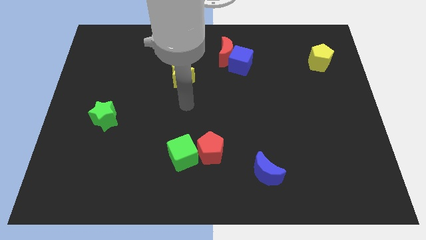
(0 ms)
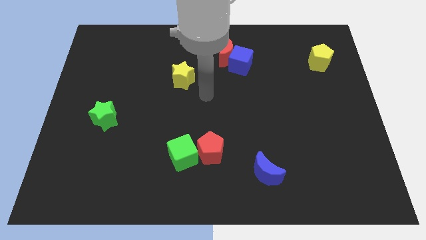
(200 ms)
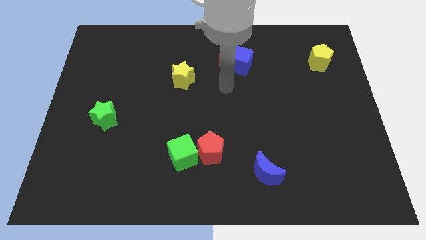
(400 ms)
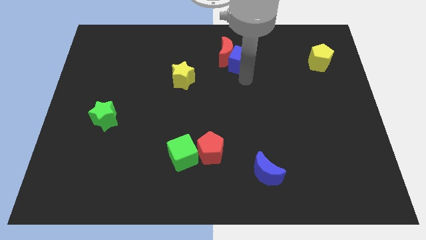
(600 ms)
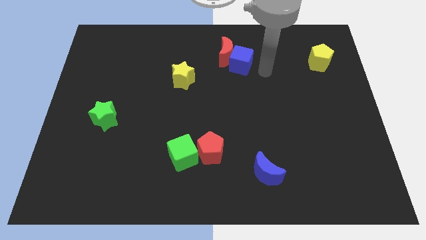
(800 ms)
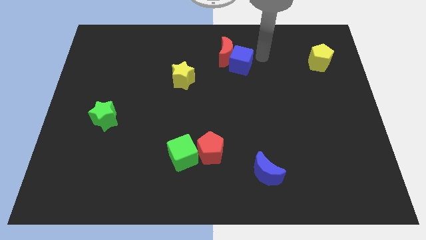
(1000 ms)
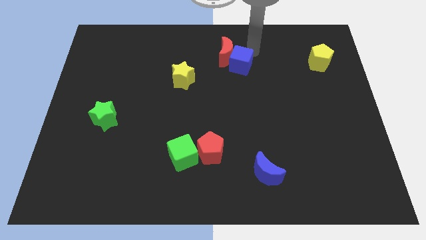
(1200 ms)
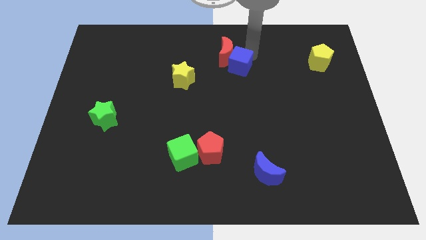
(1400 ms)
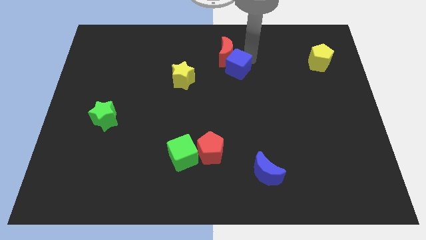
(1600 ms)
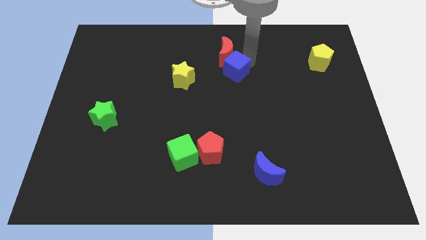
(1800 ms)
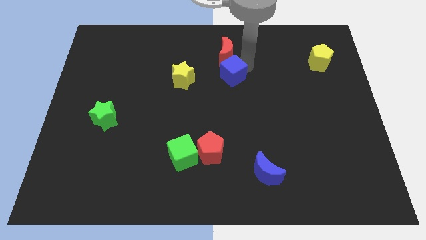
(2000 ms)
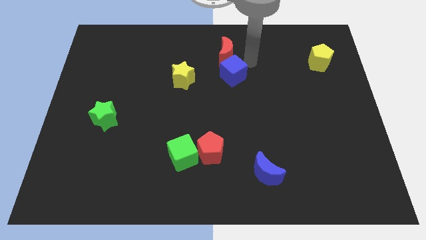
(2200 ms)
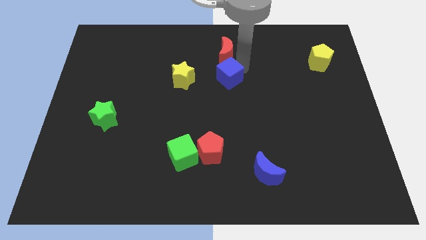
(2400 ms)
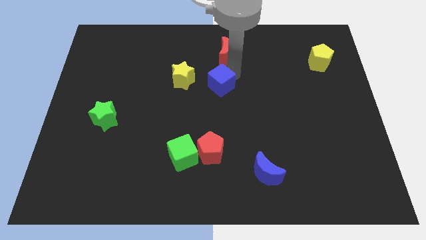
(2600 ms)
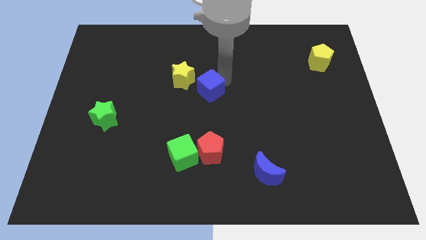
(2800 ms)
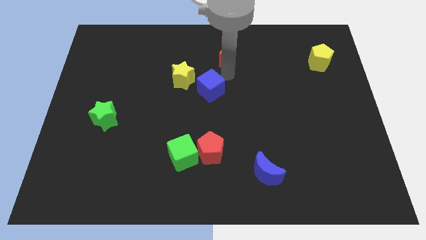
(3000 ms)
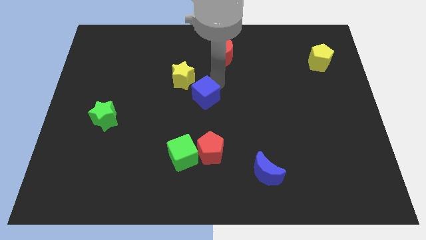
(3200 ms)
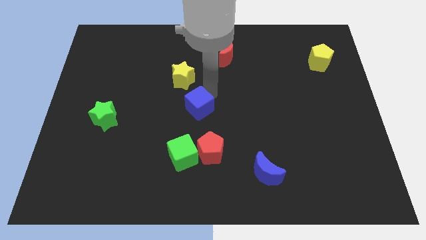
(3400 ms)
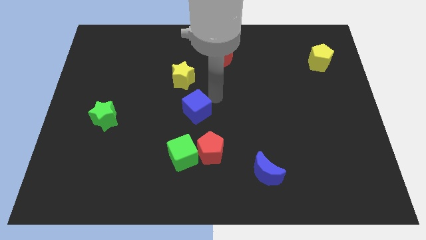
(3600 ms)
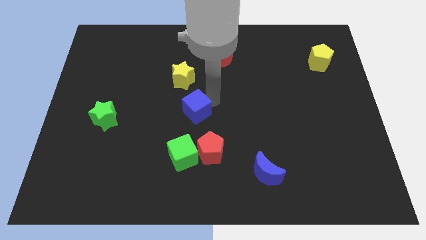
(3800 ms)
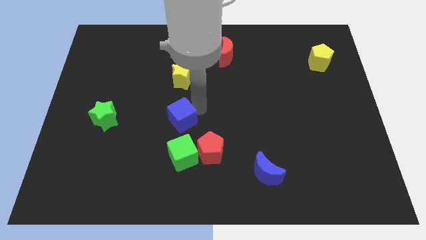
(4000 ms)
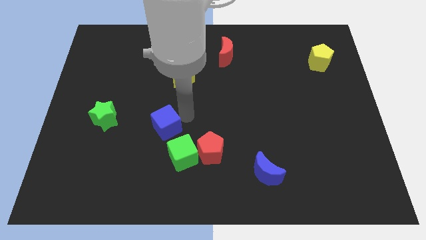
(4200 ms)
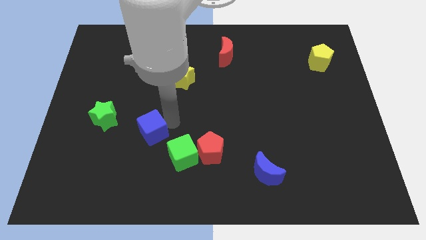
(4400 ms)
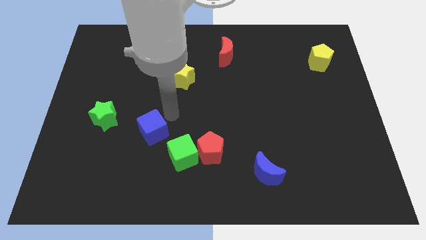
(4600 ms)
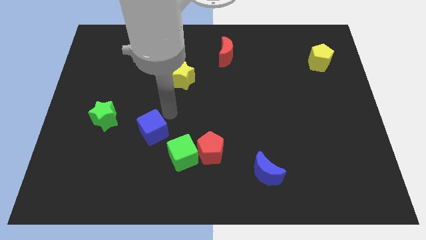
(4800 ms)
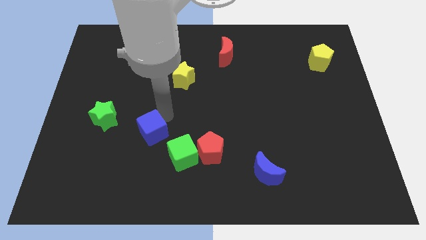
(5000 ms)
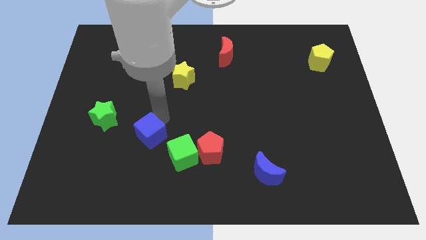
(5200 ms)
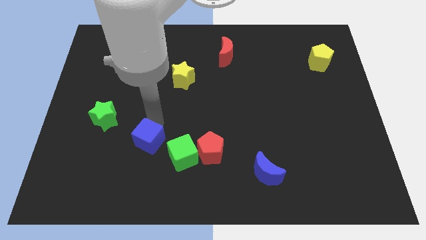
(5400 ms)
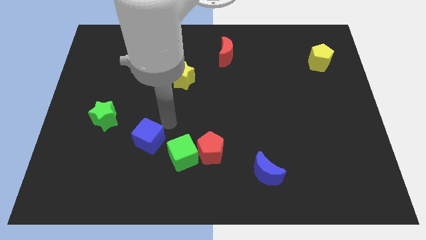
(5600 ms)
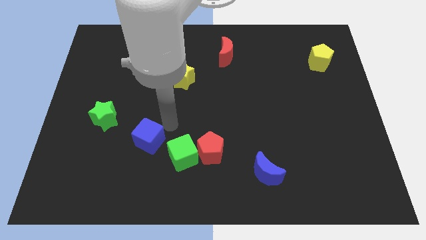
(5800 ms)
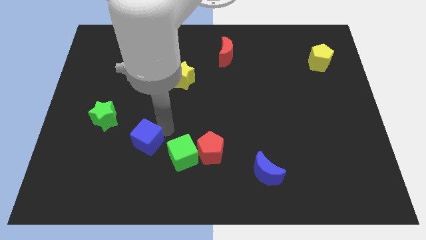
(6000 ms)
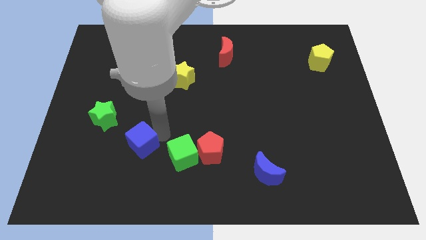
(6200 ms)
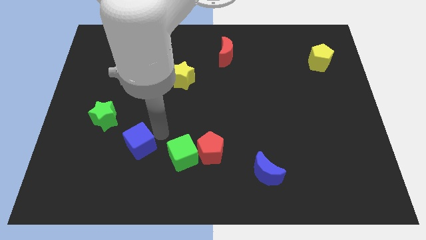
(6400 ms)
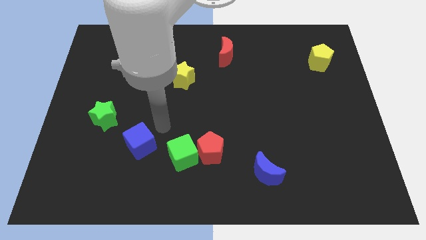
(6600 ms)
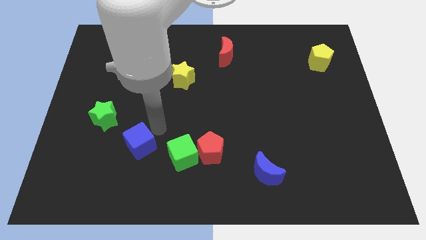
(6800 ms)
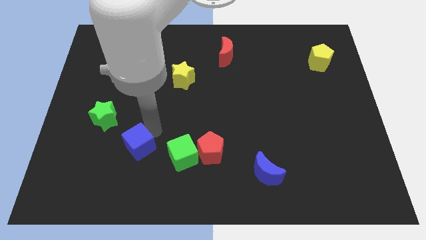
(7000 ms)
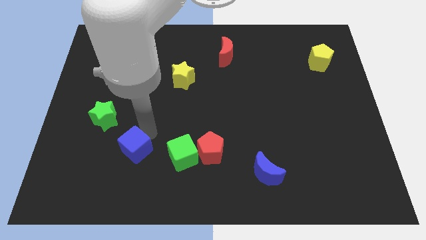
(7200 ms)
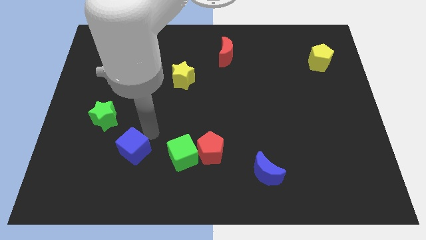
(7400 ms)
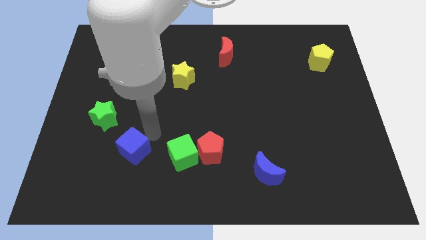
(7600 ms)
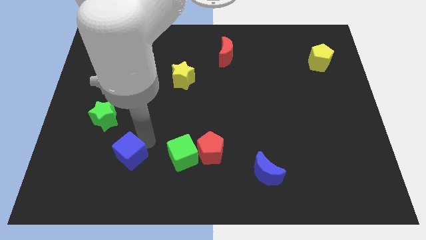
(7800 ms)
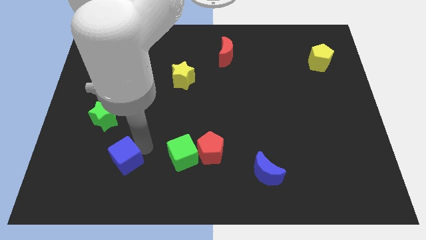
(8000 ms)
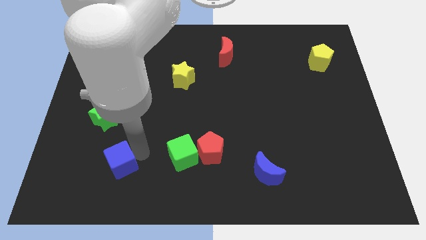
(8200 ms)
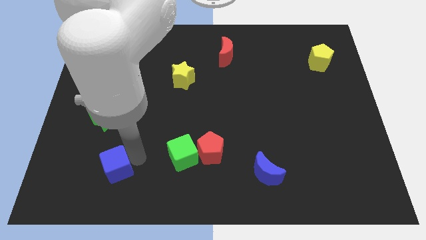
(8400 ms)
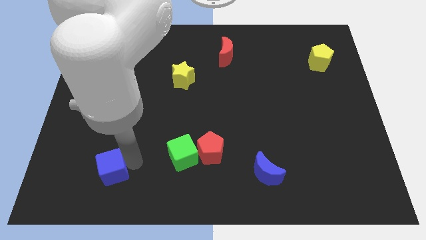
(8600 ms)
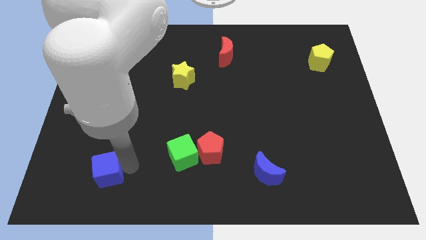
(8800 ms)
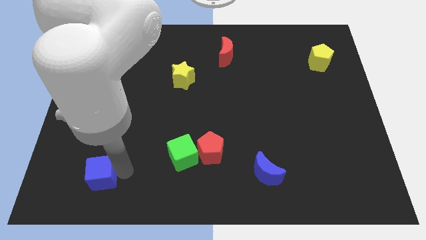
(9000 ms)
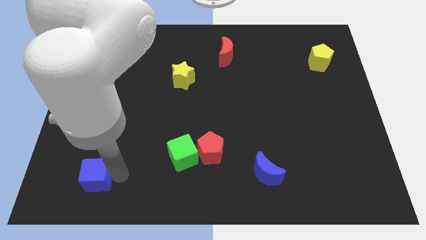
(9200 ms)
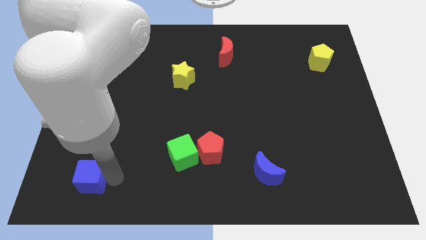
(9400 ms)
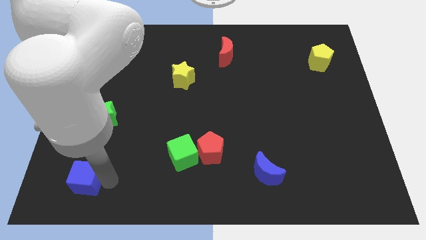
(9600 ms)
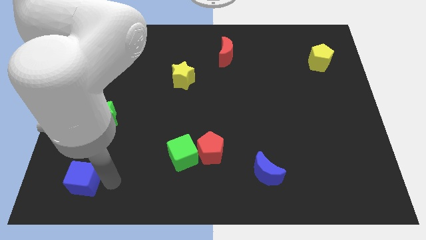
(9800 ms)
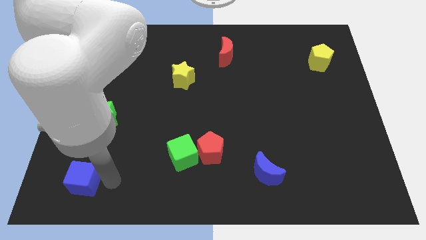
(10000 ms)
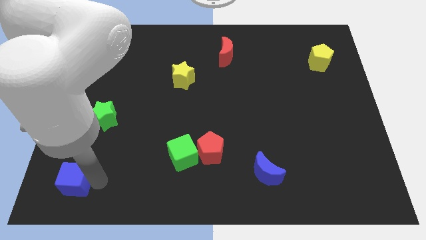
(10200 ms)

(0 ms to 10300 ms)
put the blue cube to the bottom left

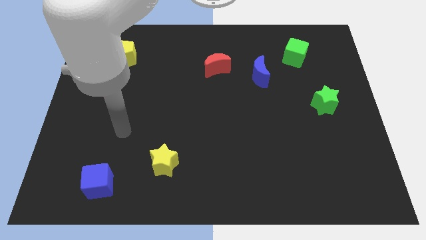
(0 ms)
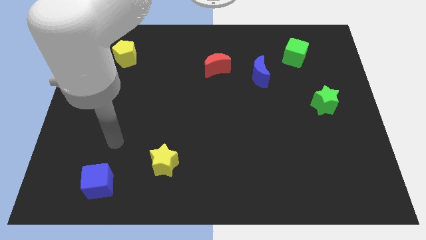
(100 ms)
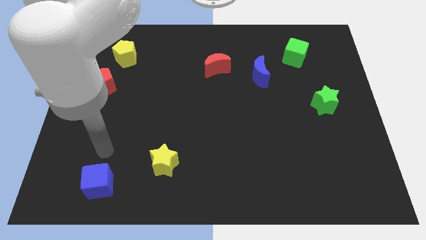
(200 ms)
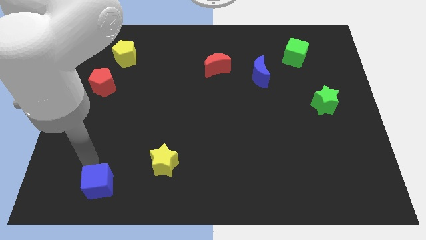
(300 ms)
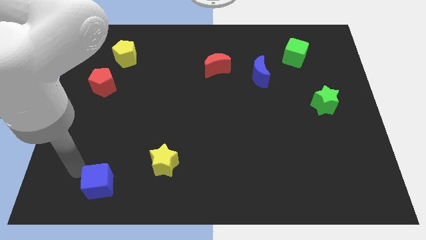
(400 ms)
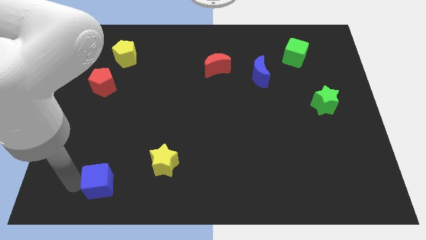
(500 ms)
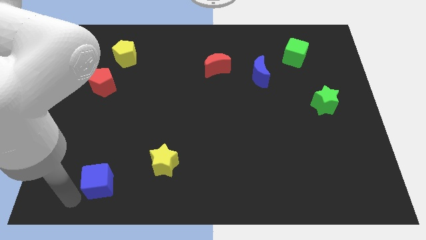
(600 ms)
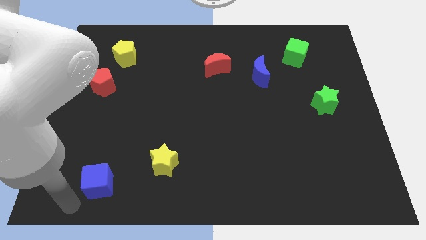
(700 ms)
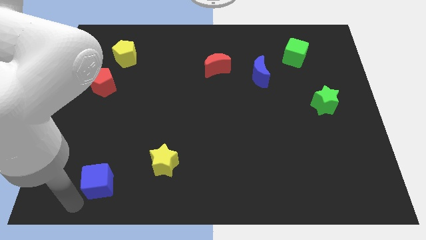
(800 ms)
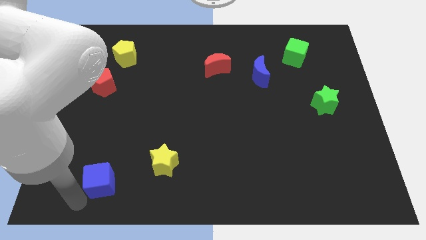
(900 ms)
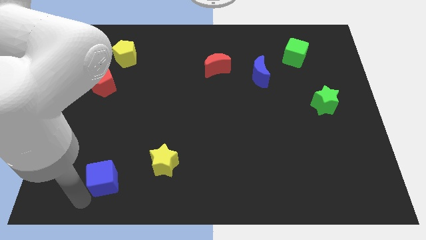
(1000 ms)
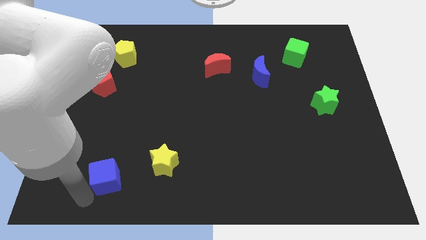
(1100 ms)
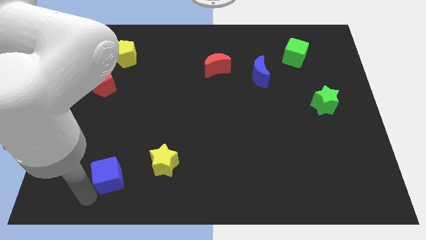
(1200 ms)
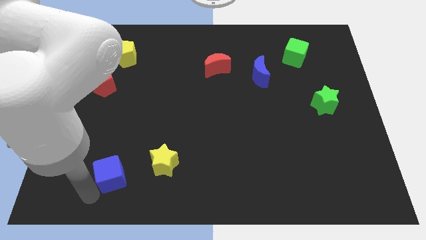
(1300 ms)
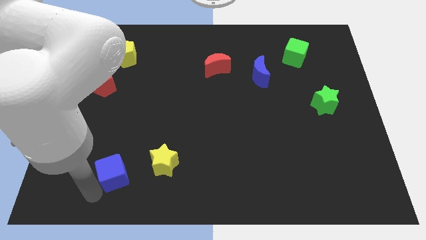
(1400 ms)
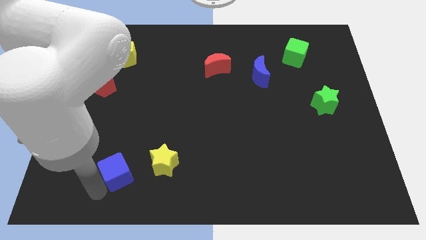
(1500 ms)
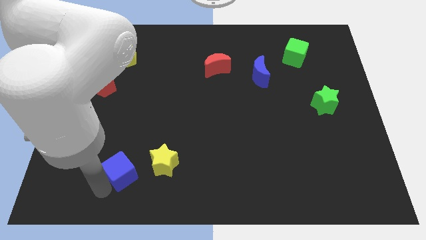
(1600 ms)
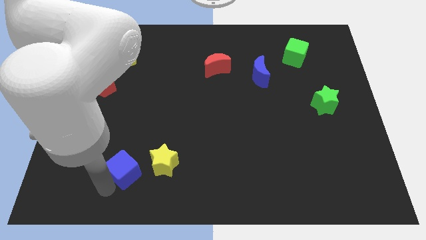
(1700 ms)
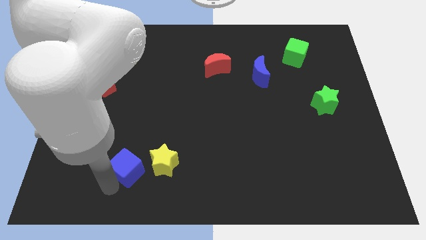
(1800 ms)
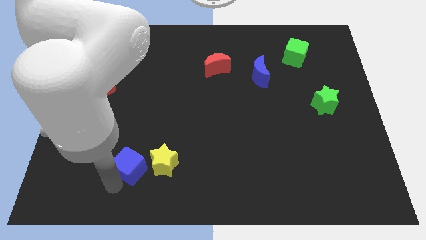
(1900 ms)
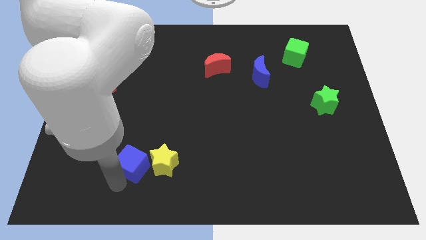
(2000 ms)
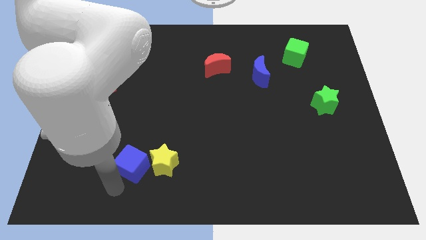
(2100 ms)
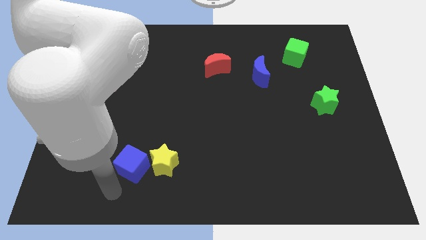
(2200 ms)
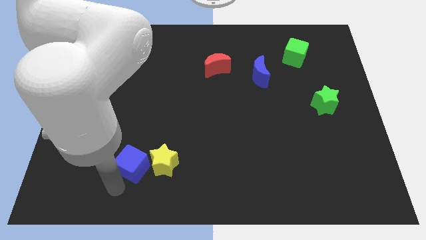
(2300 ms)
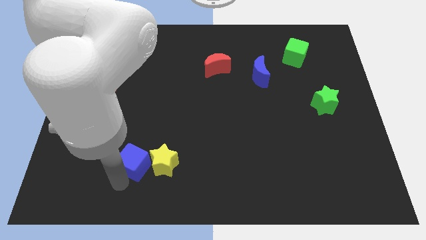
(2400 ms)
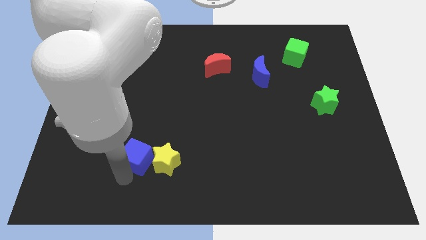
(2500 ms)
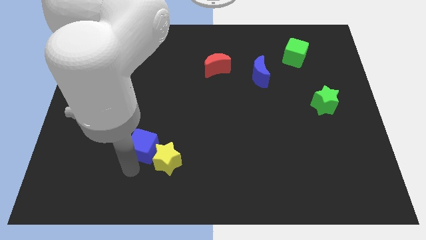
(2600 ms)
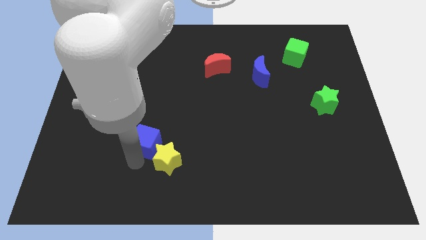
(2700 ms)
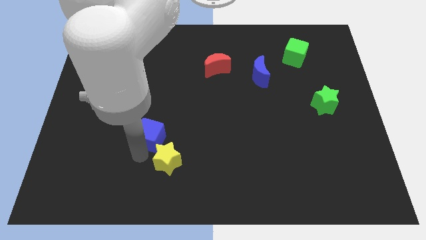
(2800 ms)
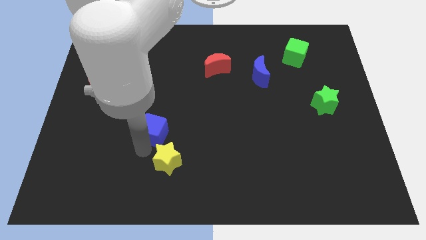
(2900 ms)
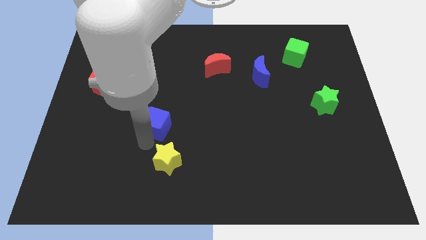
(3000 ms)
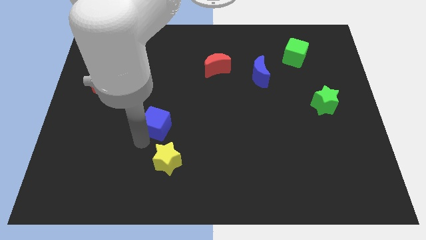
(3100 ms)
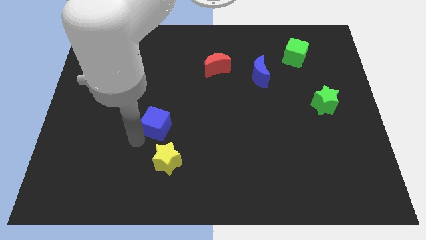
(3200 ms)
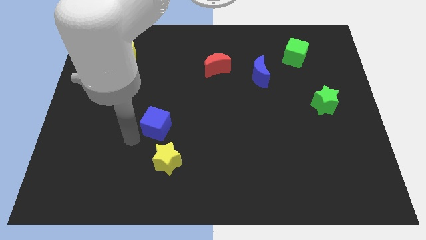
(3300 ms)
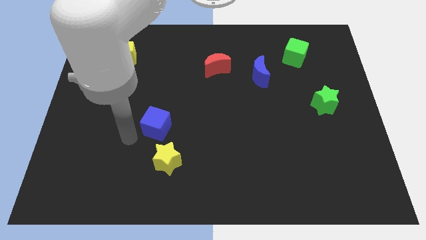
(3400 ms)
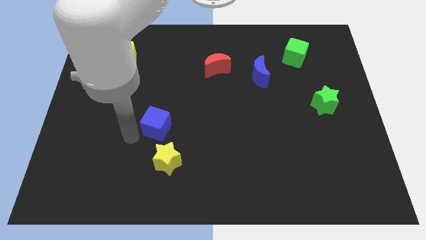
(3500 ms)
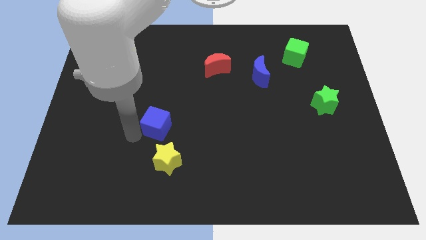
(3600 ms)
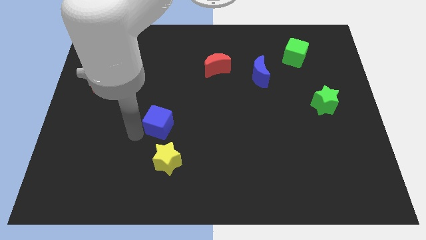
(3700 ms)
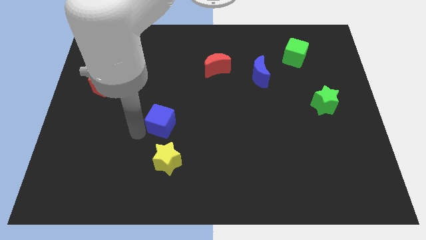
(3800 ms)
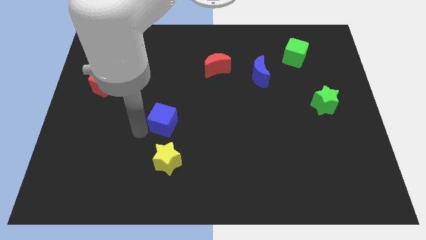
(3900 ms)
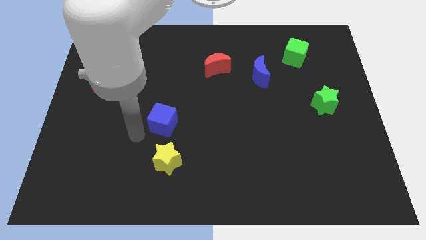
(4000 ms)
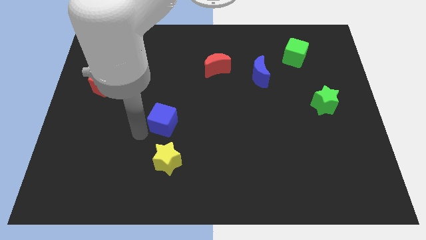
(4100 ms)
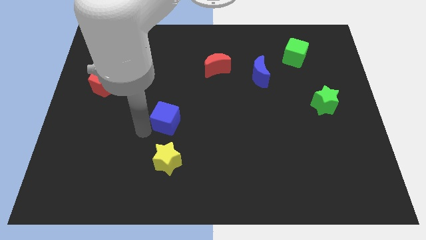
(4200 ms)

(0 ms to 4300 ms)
push the blue cube to the center
